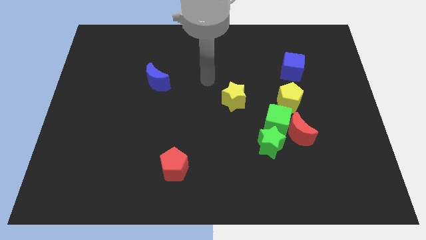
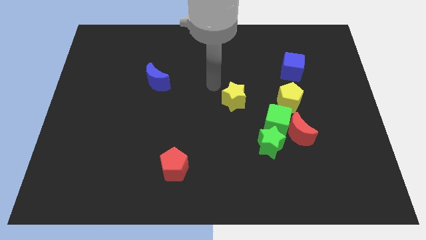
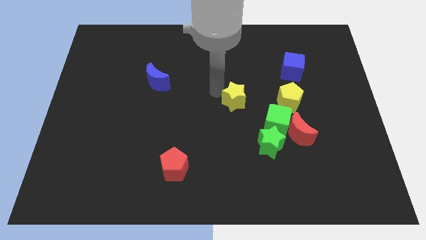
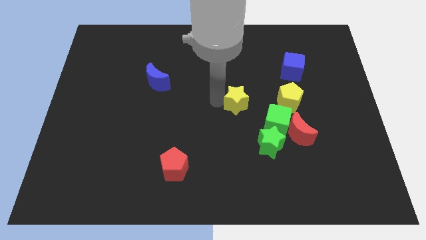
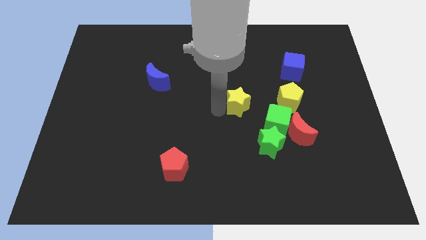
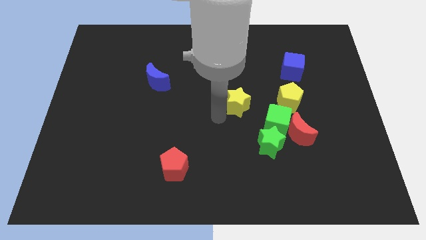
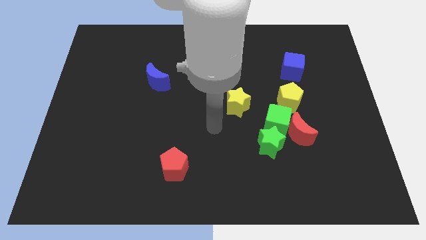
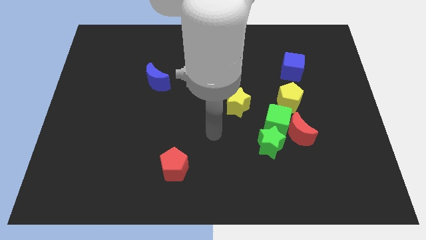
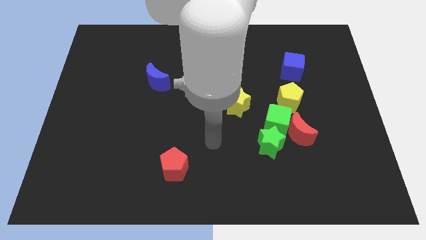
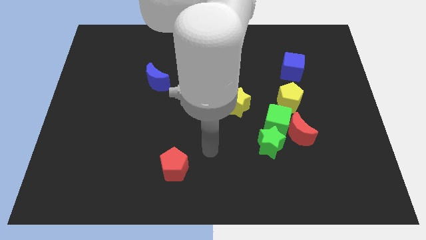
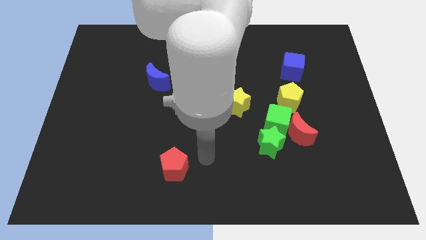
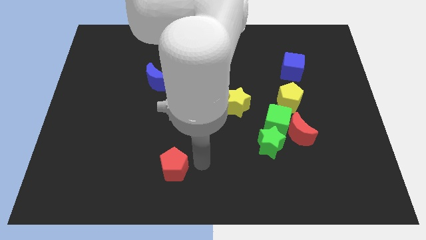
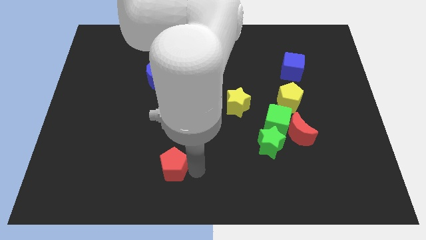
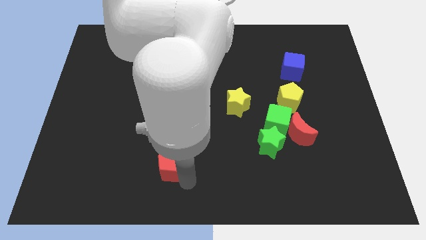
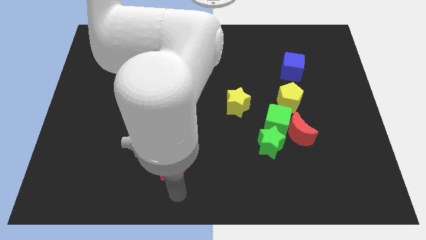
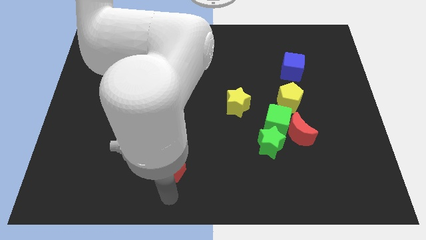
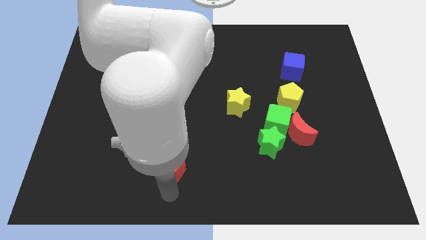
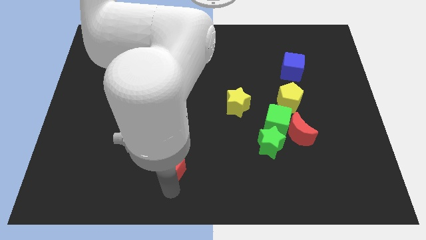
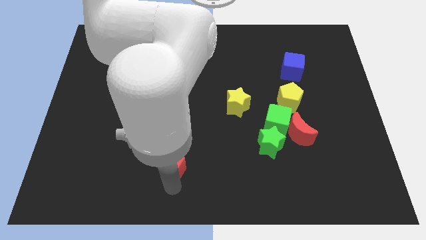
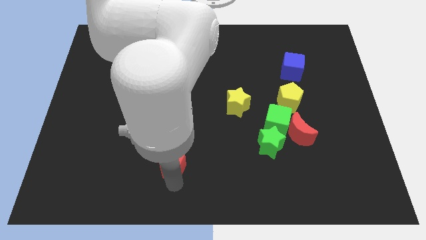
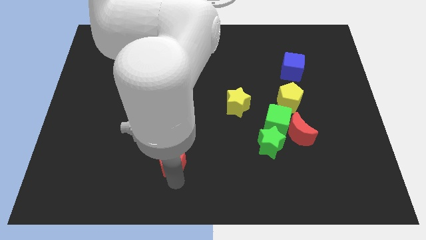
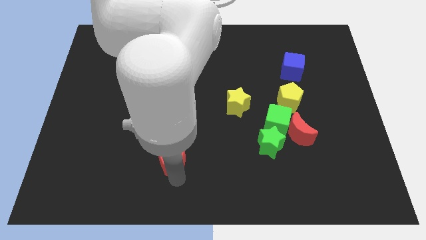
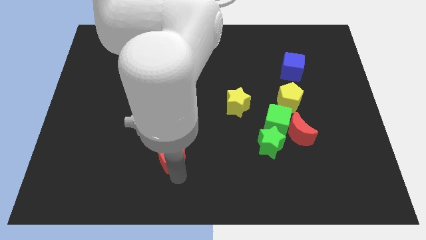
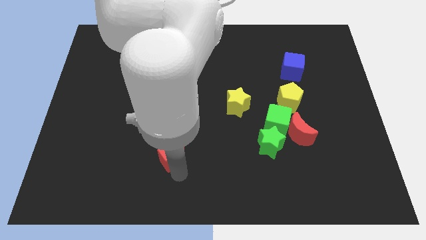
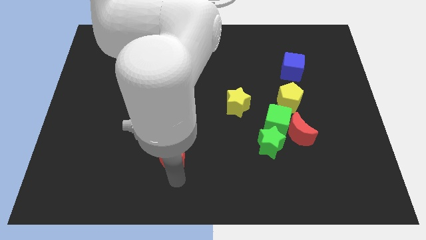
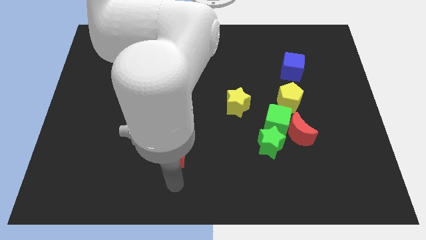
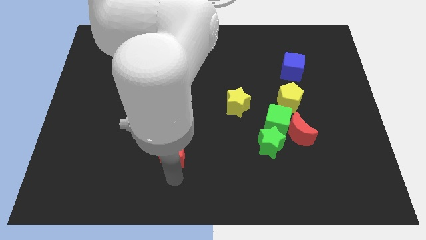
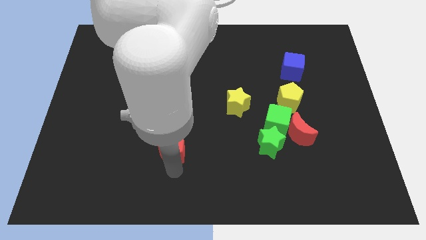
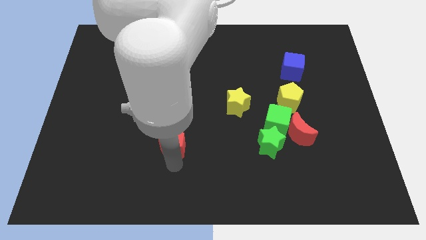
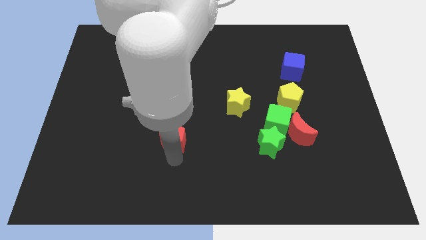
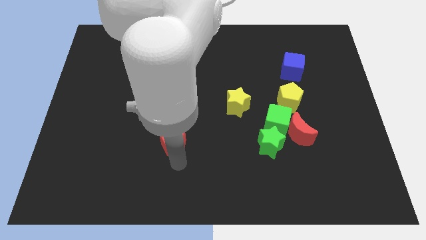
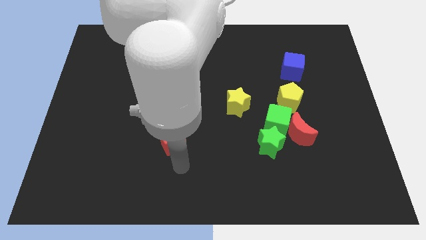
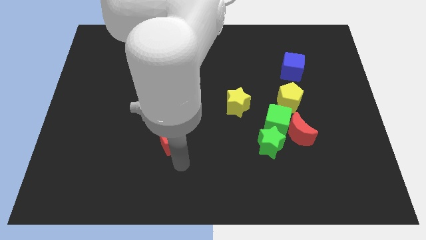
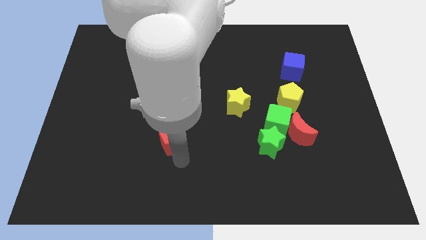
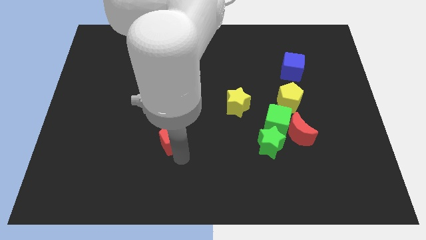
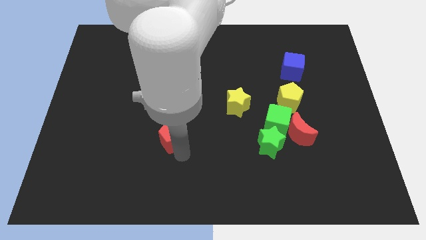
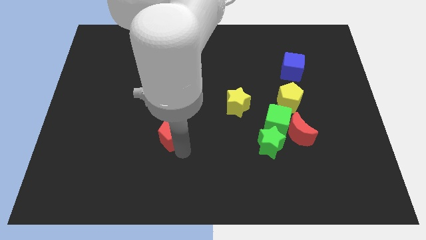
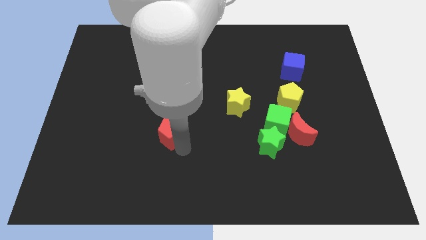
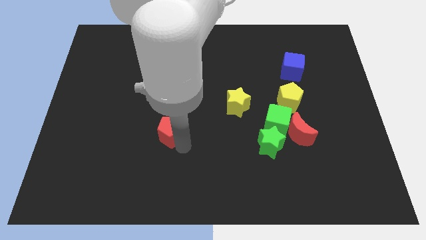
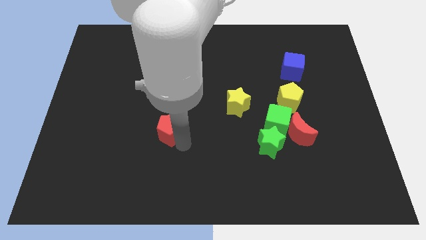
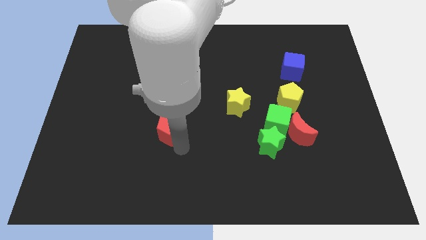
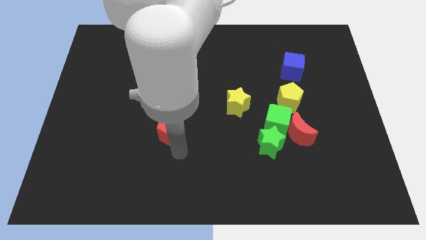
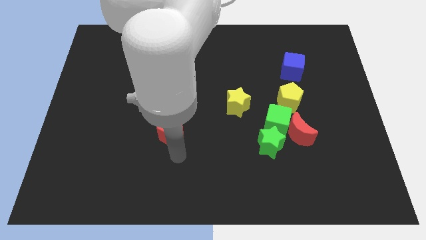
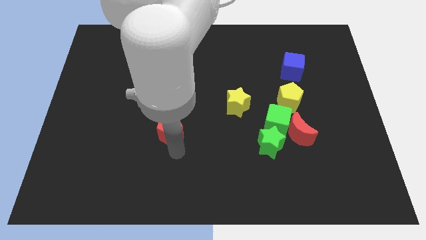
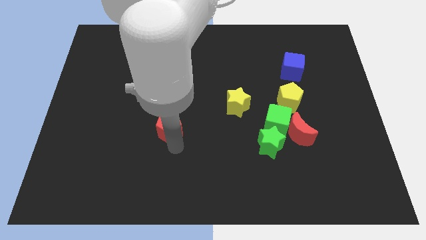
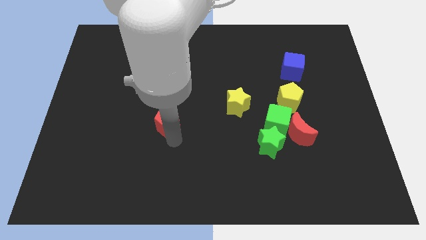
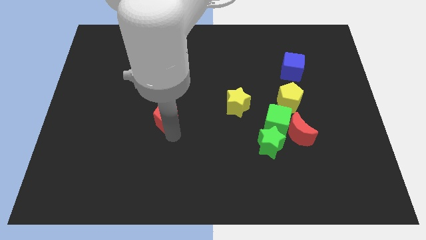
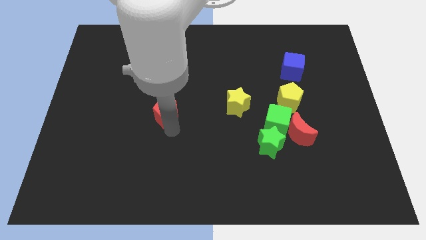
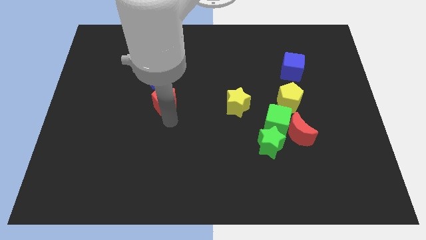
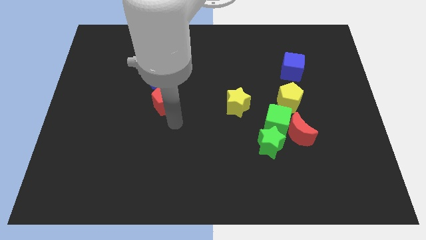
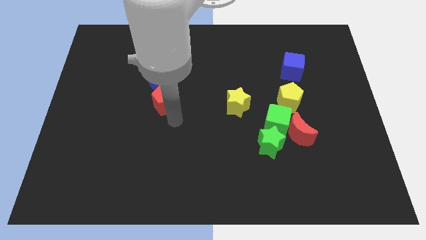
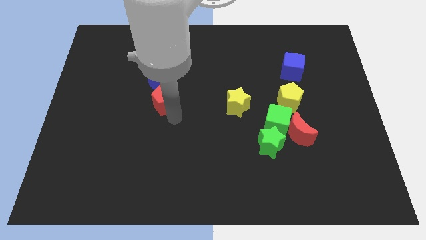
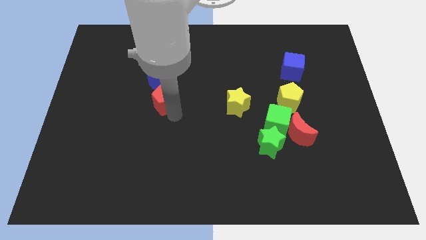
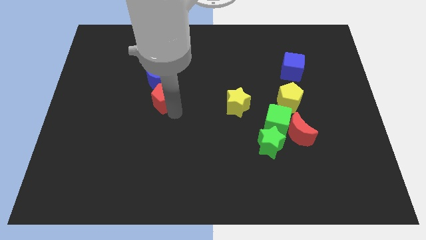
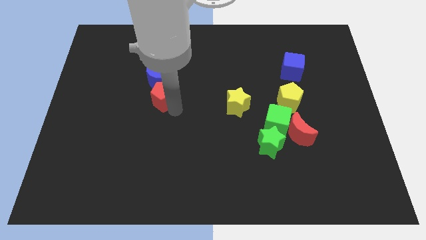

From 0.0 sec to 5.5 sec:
put the red pentagon close to the blue moon

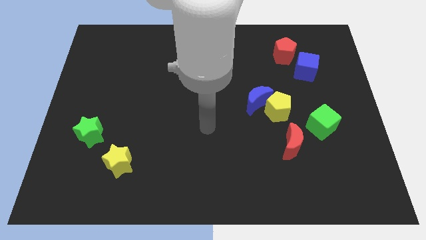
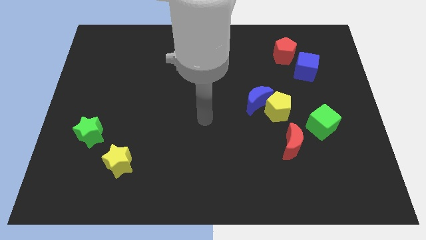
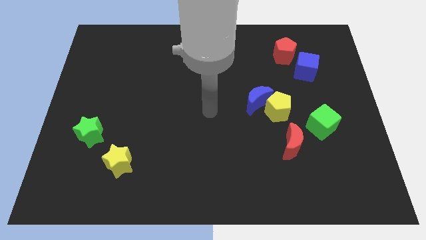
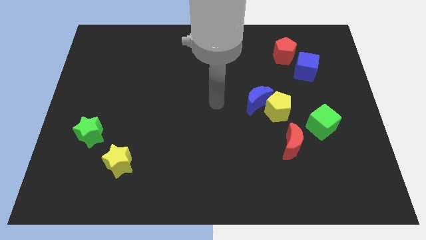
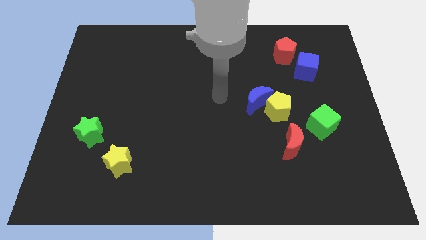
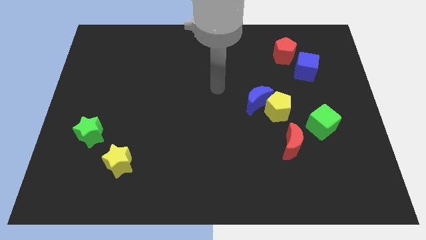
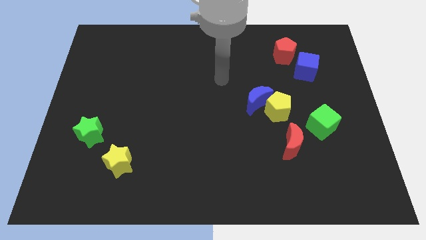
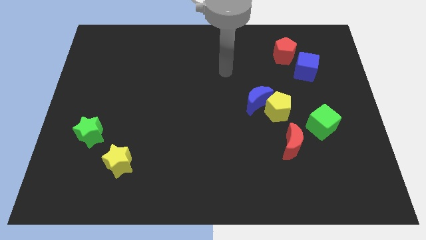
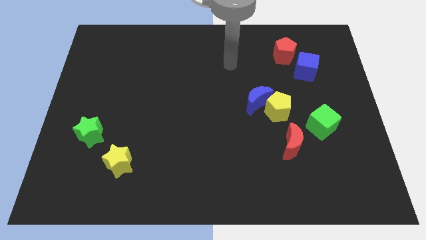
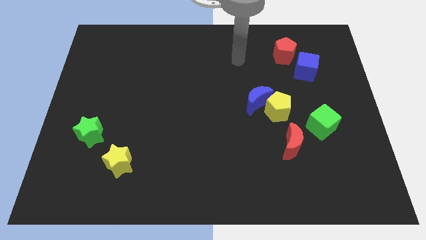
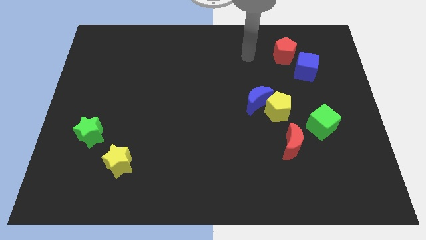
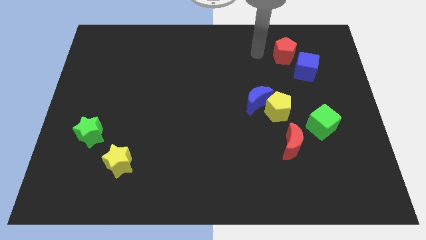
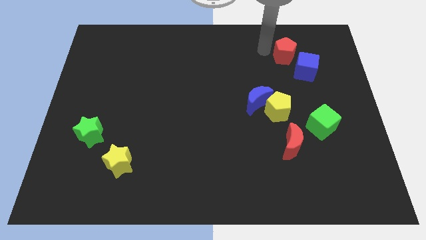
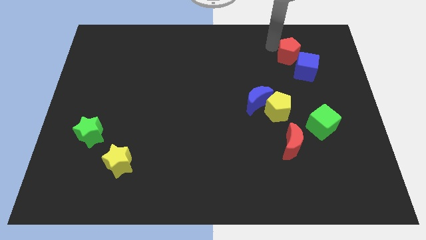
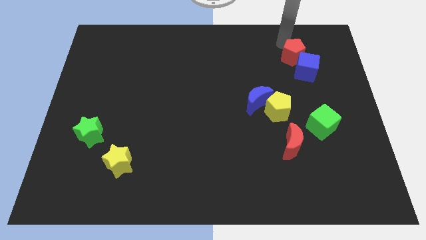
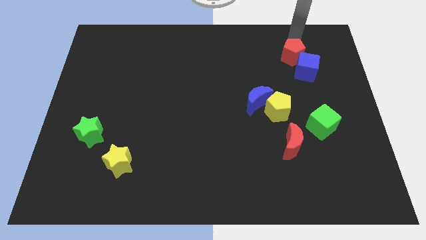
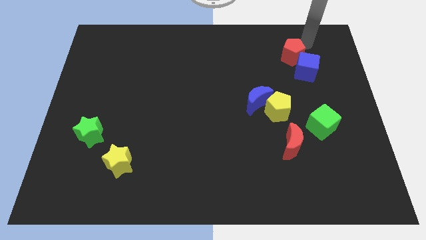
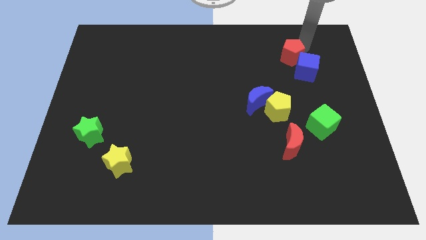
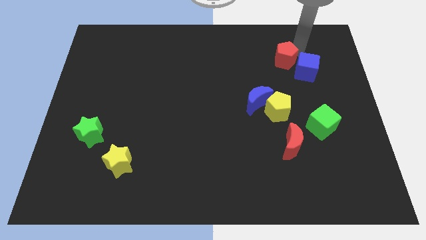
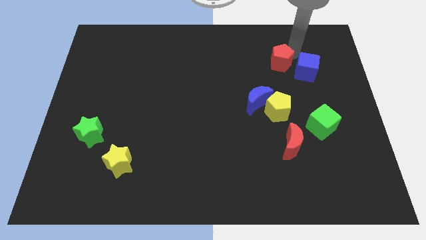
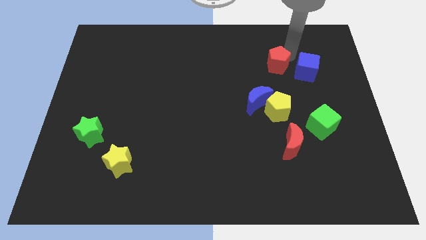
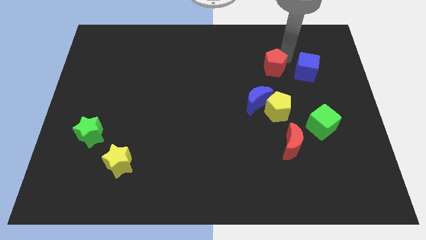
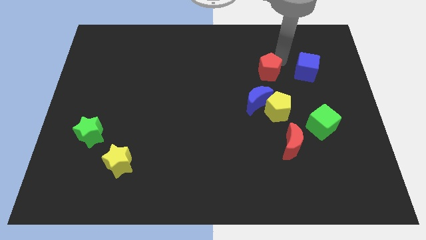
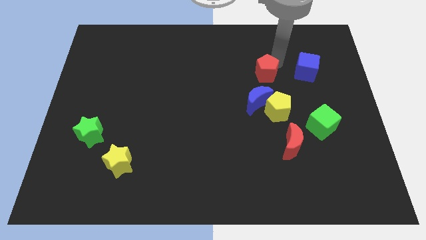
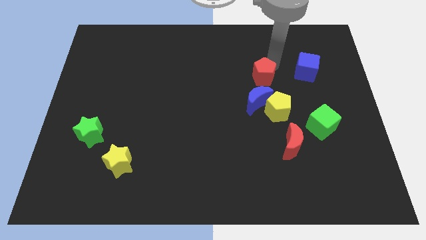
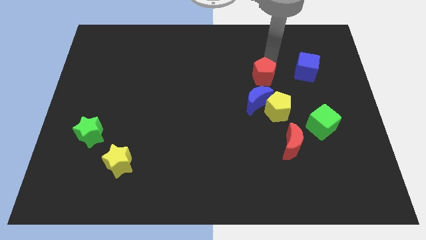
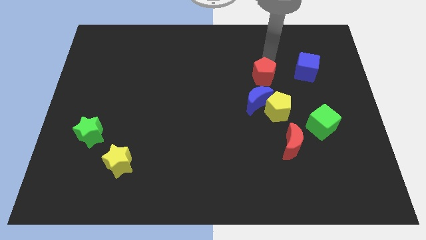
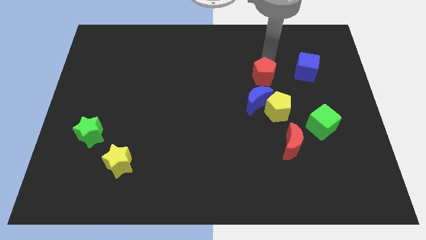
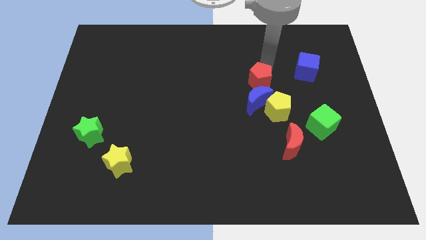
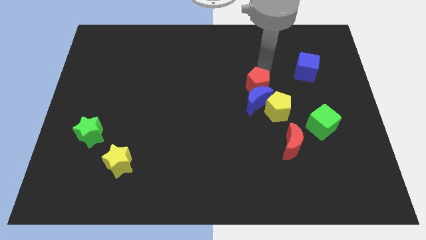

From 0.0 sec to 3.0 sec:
put the red pentagon to the blue moon
